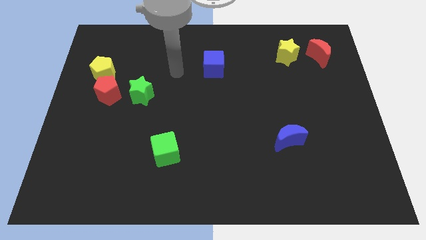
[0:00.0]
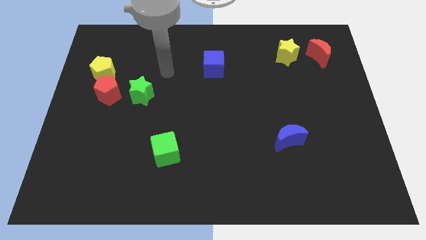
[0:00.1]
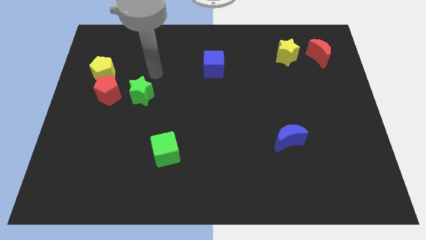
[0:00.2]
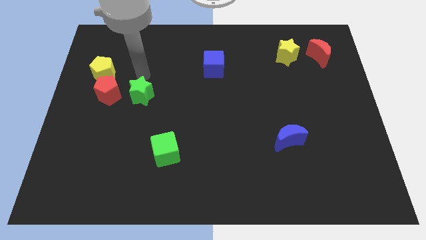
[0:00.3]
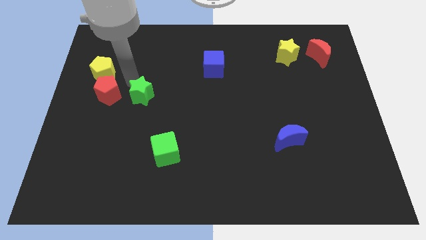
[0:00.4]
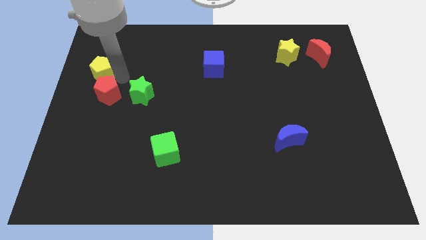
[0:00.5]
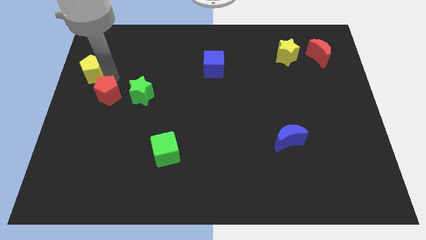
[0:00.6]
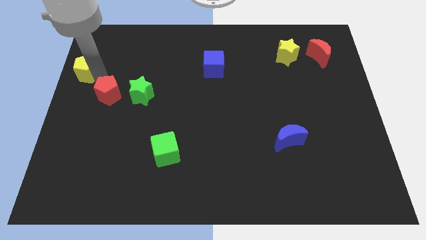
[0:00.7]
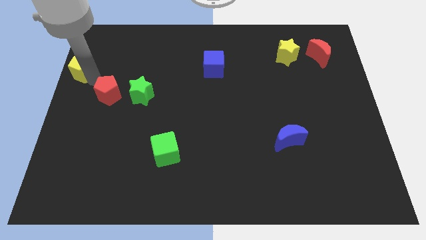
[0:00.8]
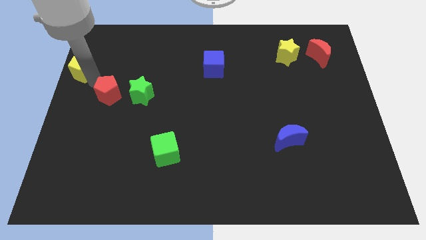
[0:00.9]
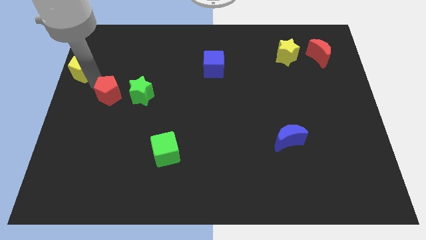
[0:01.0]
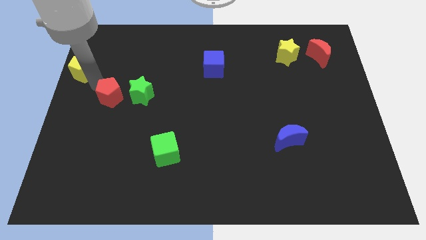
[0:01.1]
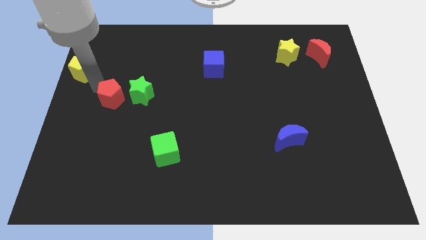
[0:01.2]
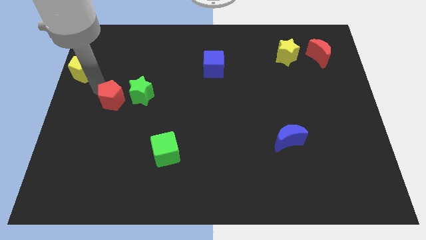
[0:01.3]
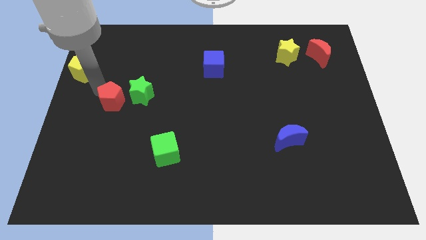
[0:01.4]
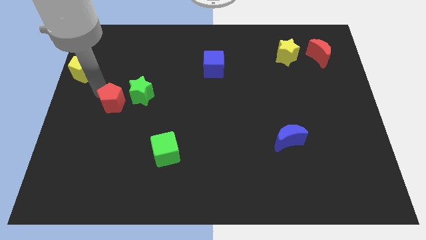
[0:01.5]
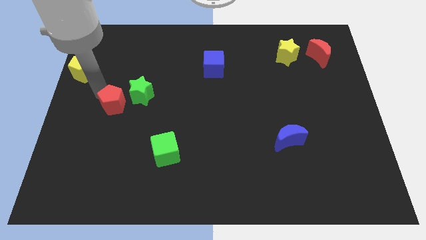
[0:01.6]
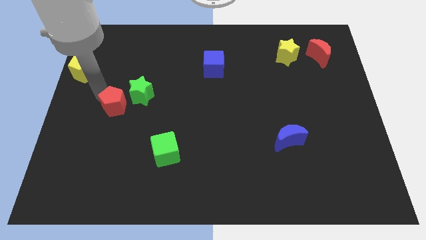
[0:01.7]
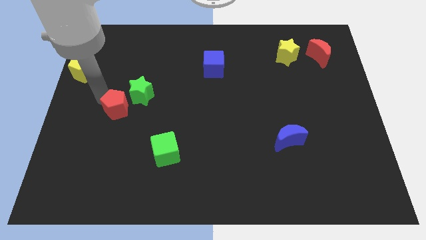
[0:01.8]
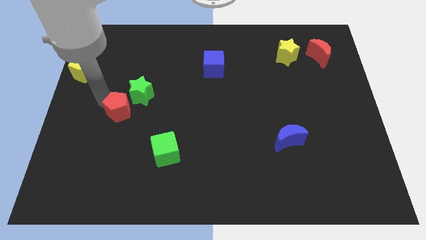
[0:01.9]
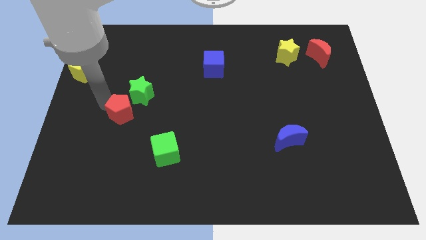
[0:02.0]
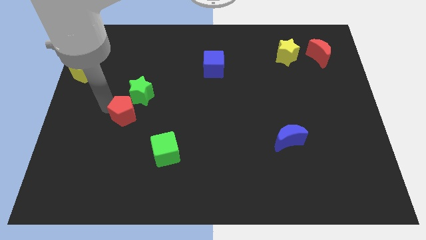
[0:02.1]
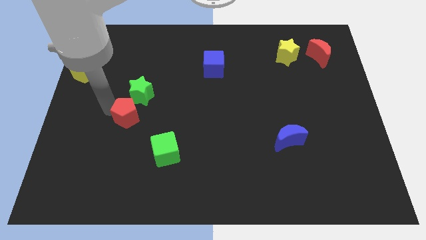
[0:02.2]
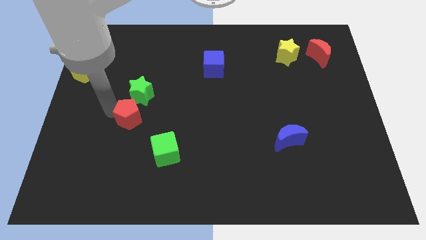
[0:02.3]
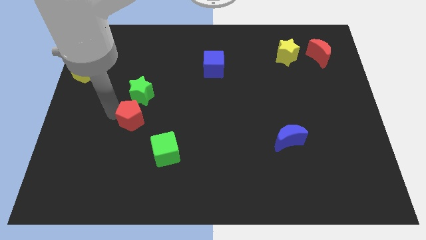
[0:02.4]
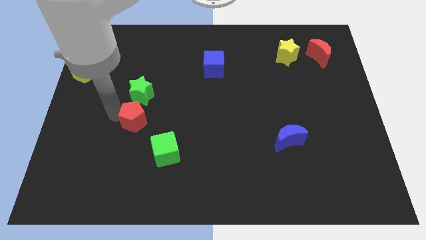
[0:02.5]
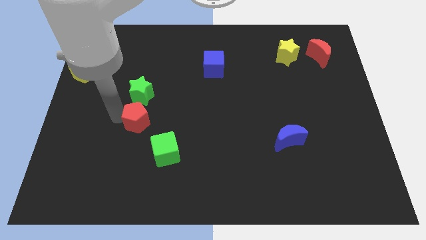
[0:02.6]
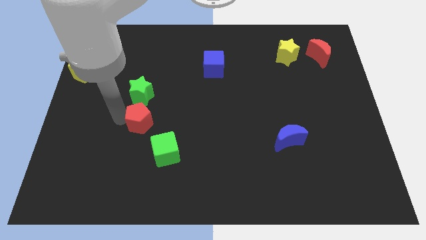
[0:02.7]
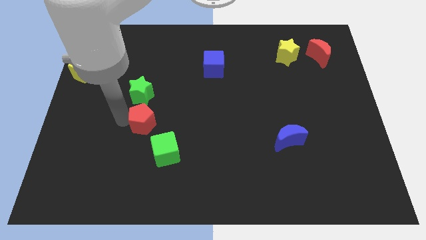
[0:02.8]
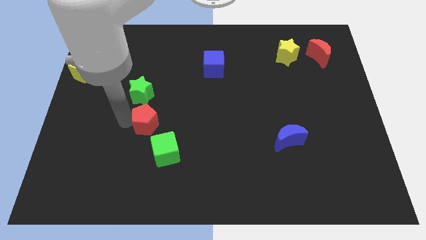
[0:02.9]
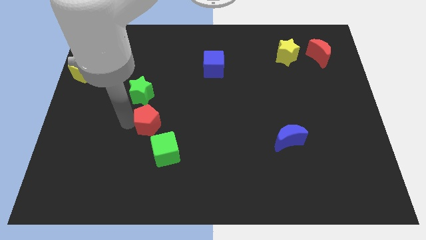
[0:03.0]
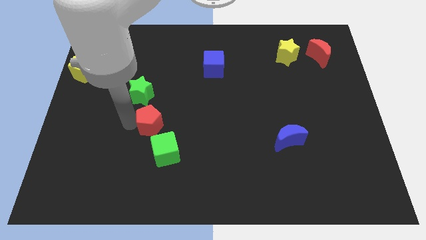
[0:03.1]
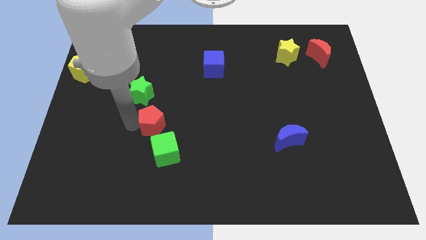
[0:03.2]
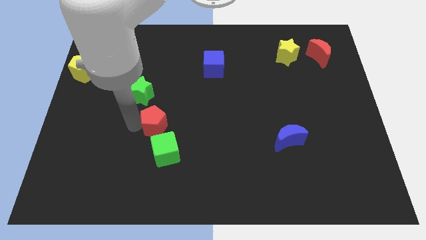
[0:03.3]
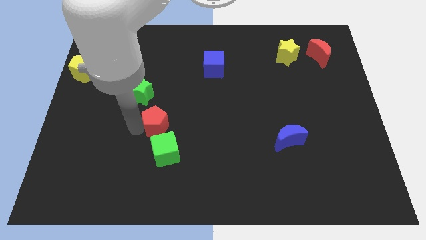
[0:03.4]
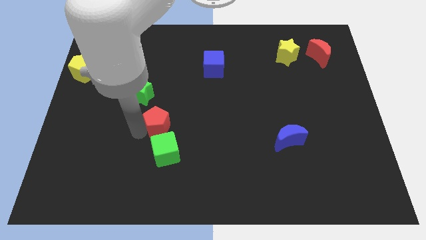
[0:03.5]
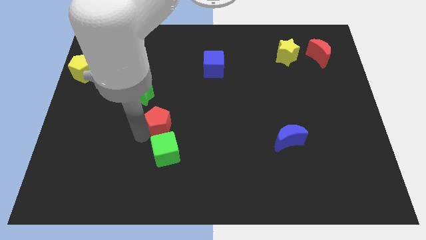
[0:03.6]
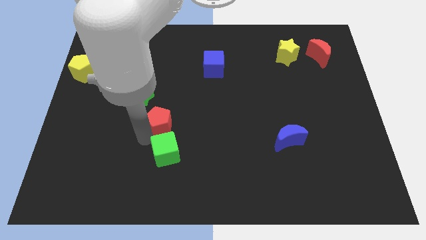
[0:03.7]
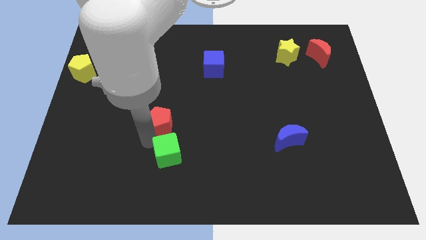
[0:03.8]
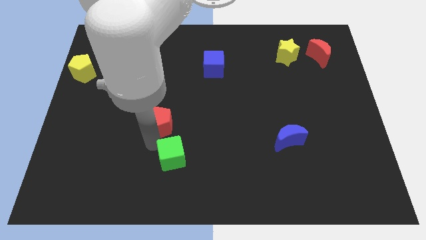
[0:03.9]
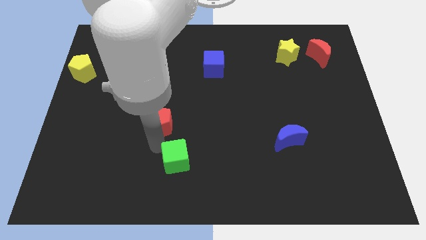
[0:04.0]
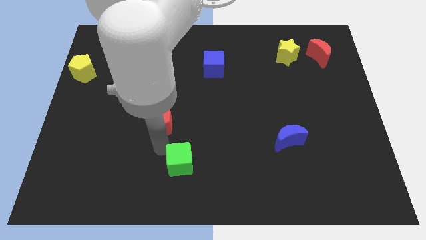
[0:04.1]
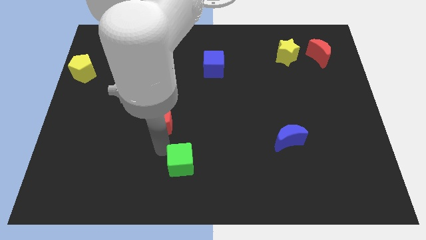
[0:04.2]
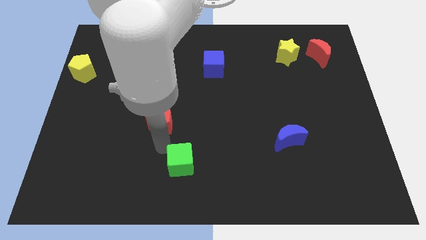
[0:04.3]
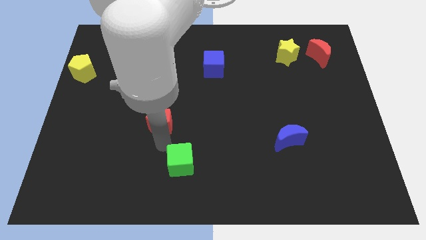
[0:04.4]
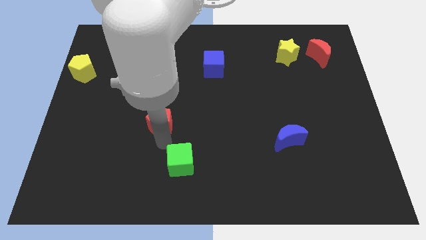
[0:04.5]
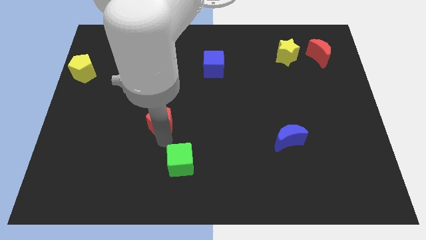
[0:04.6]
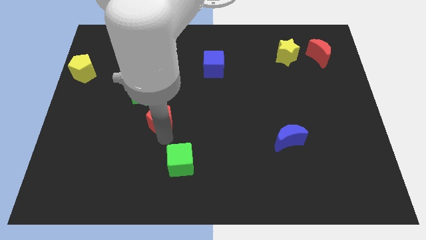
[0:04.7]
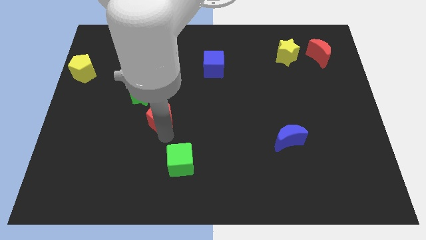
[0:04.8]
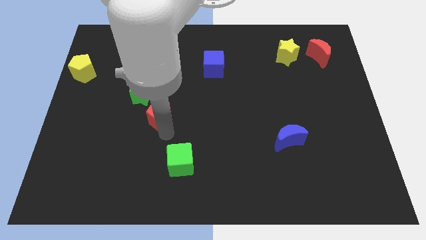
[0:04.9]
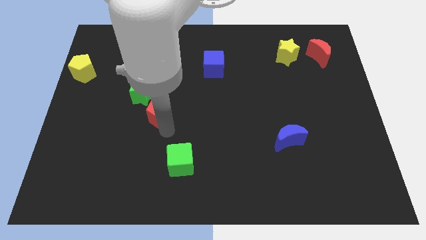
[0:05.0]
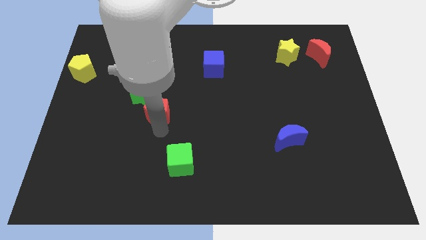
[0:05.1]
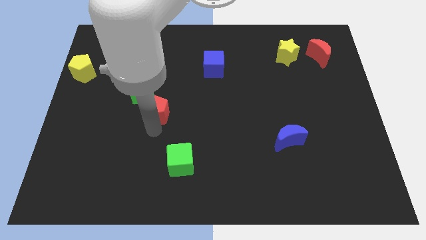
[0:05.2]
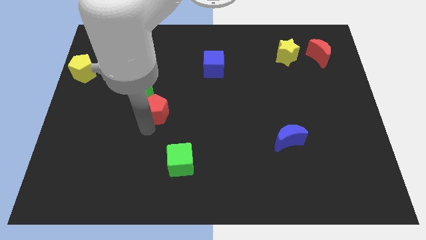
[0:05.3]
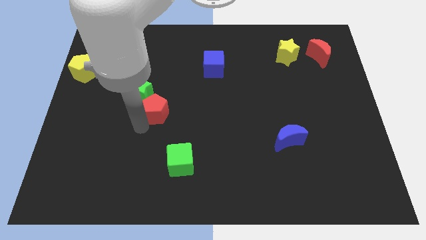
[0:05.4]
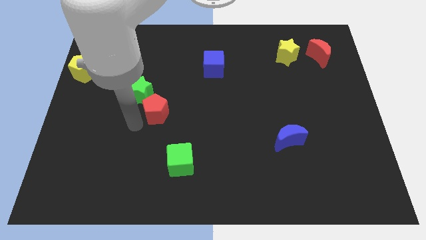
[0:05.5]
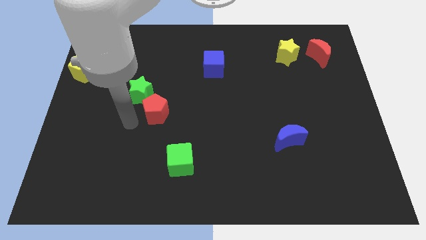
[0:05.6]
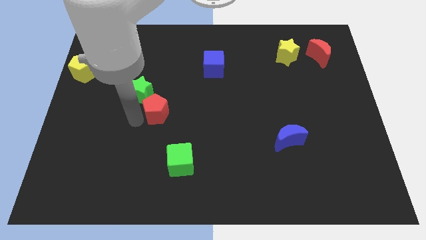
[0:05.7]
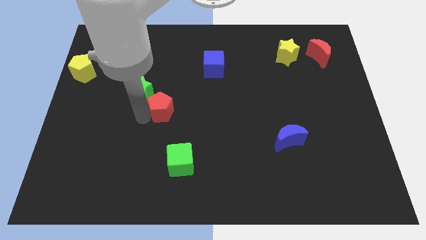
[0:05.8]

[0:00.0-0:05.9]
push the red pentagon to the center of the board
